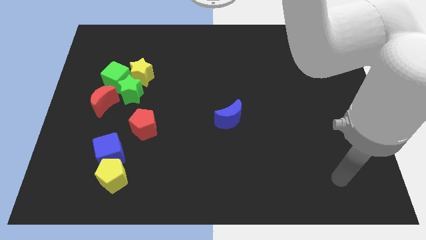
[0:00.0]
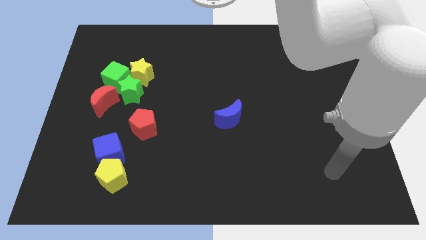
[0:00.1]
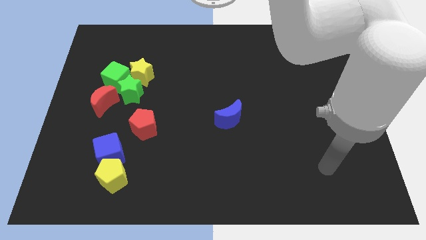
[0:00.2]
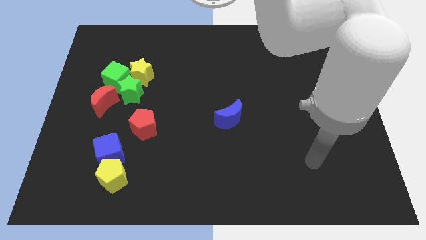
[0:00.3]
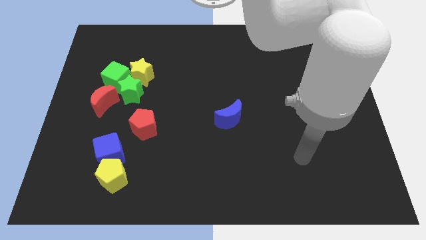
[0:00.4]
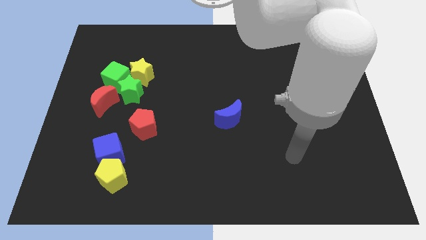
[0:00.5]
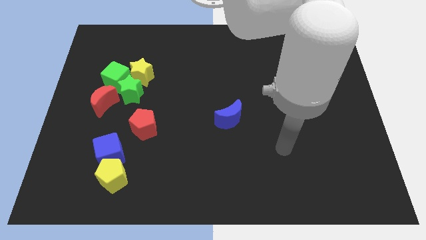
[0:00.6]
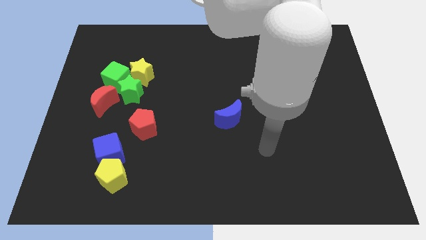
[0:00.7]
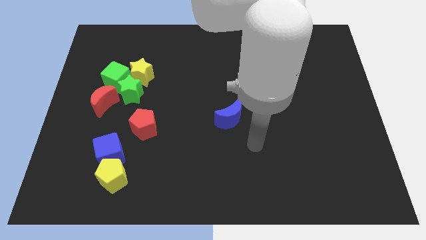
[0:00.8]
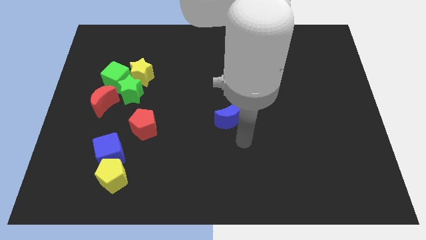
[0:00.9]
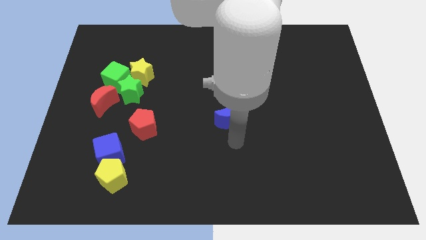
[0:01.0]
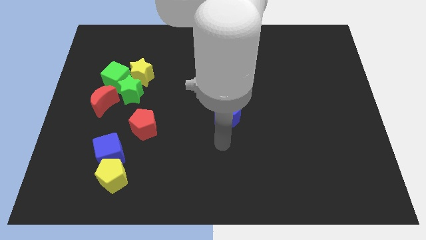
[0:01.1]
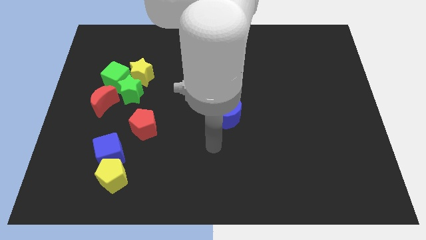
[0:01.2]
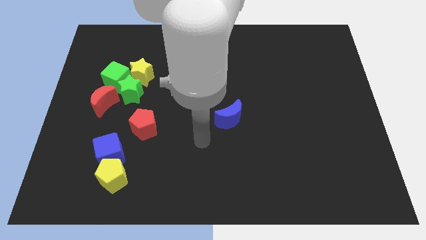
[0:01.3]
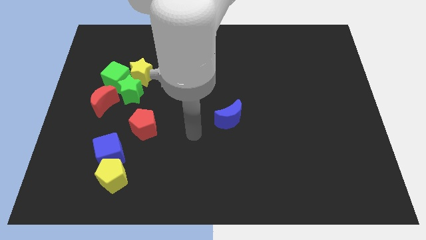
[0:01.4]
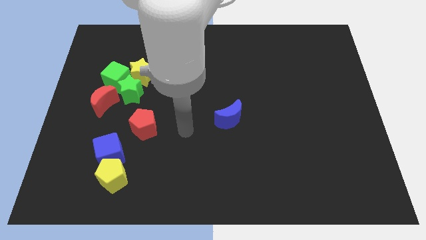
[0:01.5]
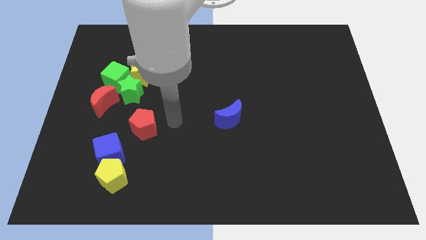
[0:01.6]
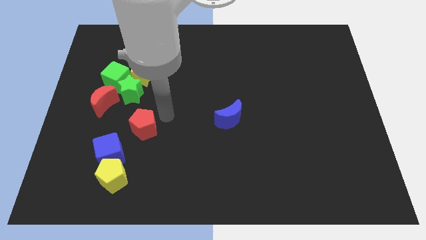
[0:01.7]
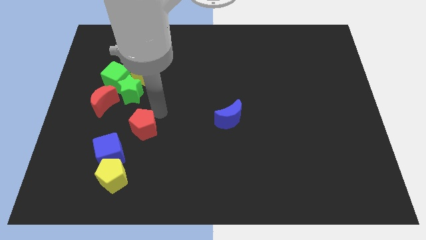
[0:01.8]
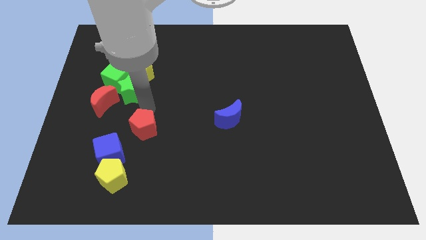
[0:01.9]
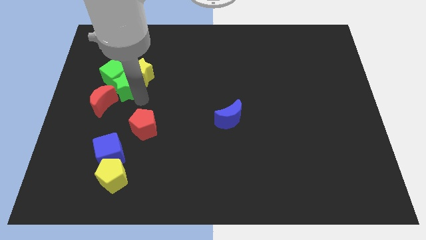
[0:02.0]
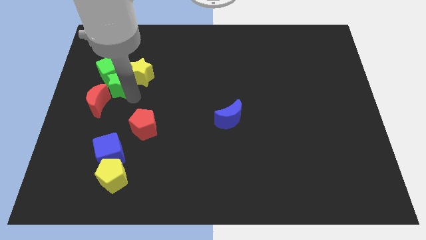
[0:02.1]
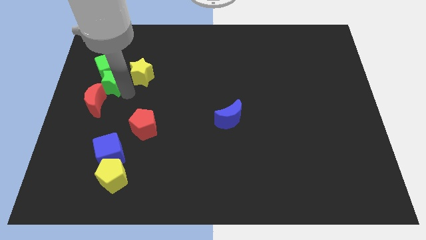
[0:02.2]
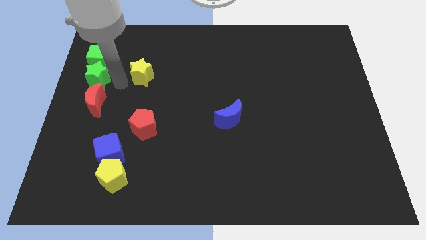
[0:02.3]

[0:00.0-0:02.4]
pull the yellow star apart from the green star and green cube

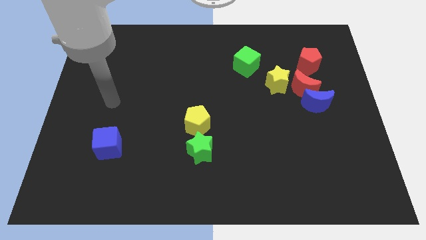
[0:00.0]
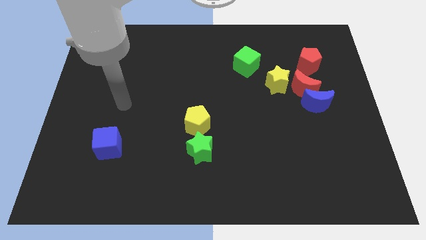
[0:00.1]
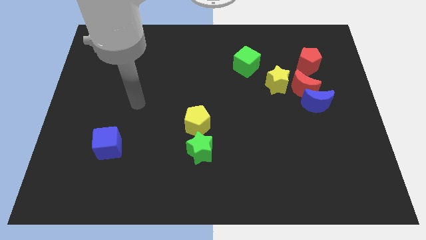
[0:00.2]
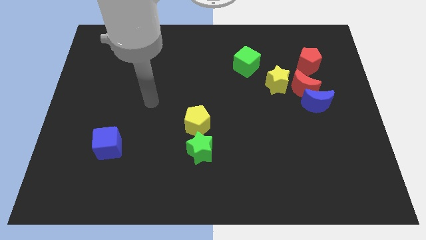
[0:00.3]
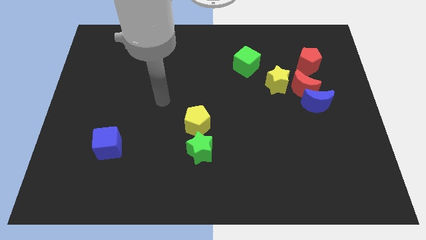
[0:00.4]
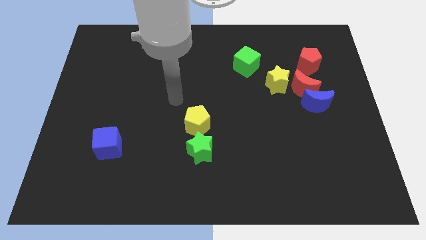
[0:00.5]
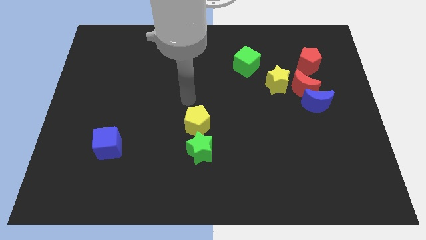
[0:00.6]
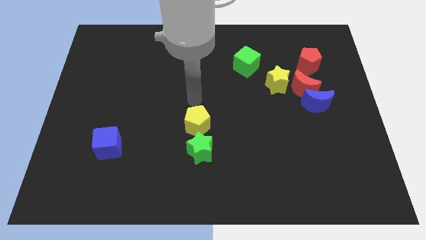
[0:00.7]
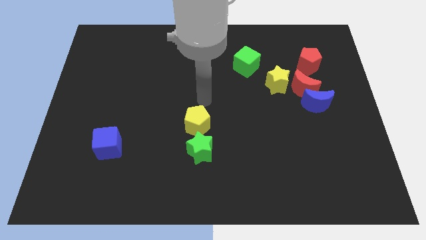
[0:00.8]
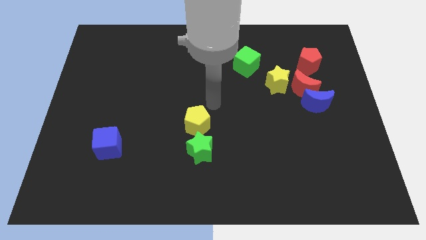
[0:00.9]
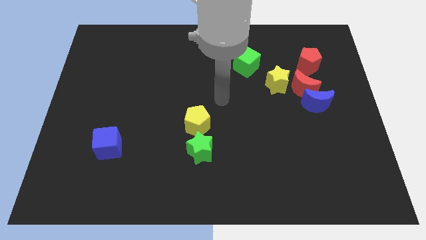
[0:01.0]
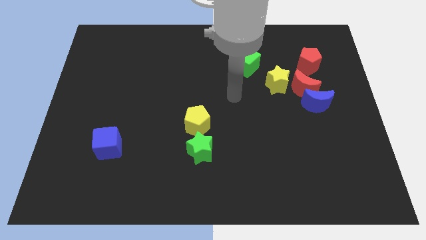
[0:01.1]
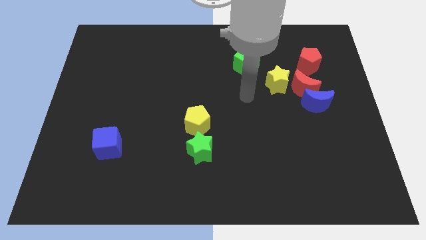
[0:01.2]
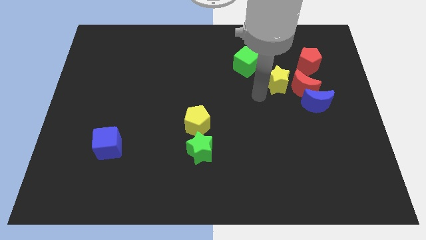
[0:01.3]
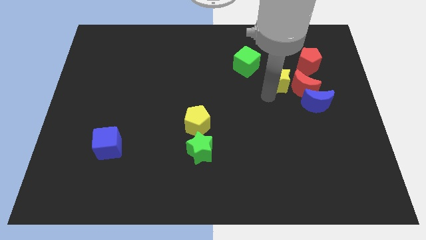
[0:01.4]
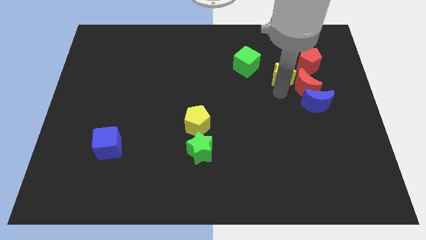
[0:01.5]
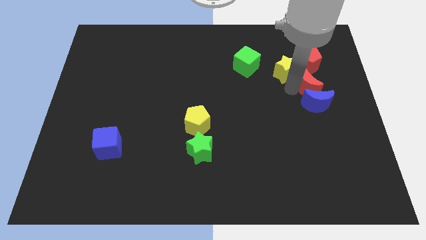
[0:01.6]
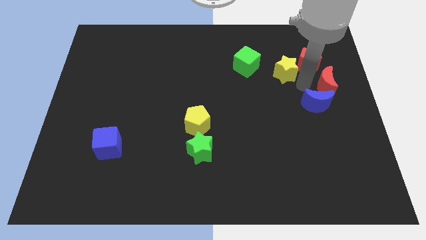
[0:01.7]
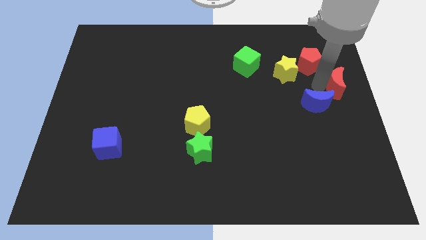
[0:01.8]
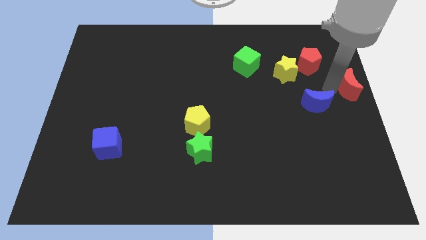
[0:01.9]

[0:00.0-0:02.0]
separate the blue moon from the red moon

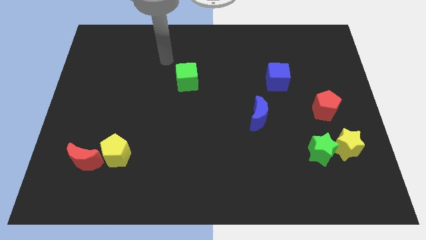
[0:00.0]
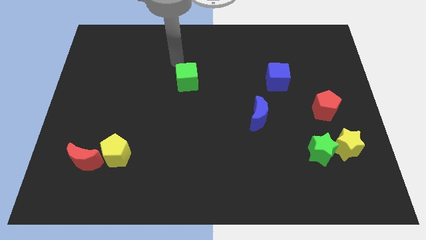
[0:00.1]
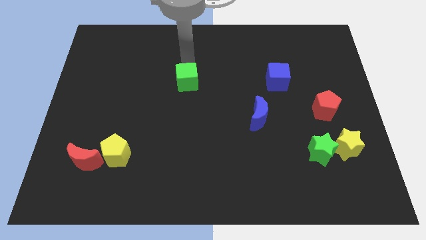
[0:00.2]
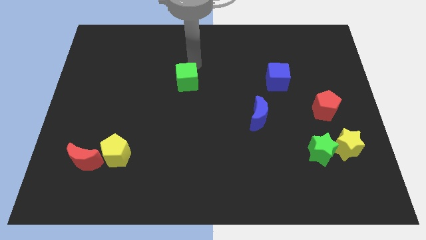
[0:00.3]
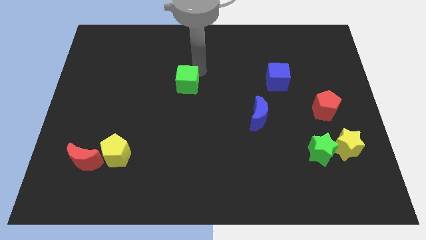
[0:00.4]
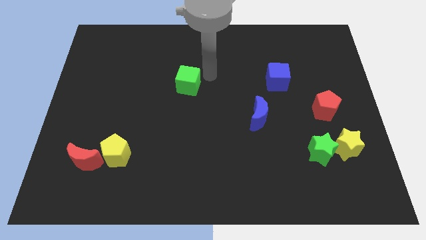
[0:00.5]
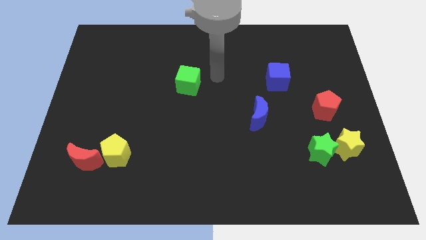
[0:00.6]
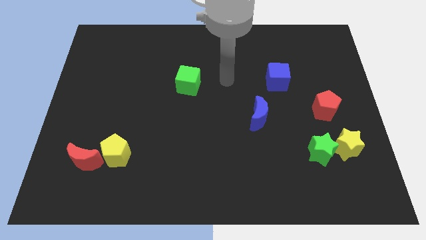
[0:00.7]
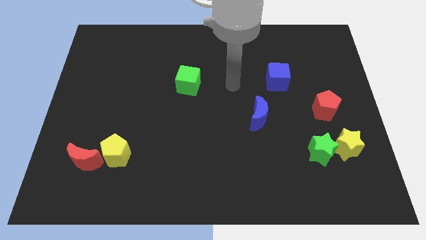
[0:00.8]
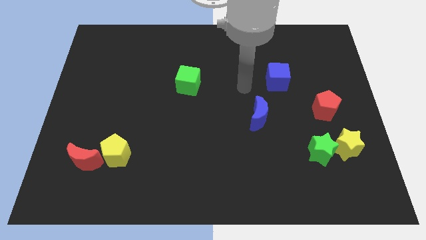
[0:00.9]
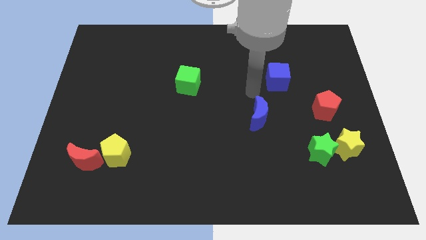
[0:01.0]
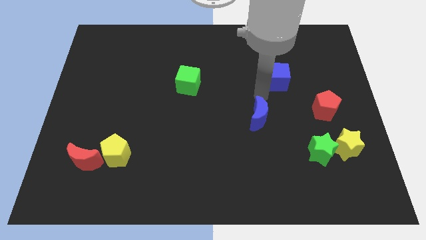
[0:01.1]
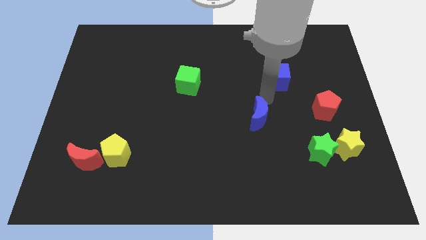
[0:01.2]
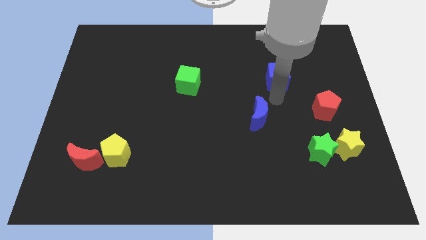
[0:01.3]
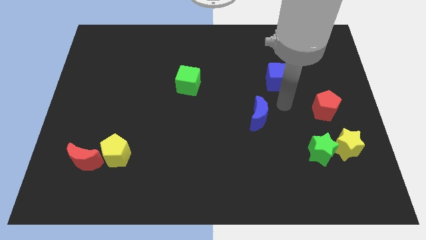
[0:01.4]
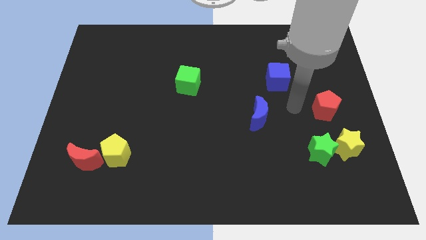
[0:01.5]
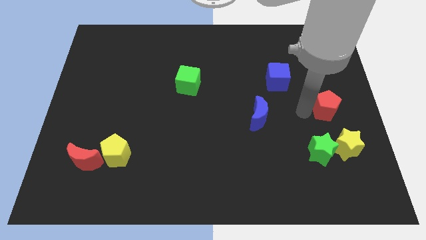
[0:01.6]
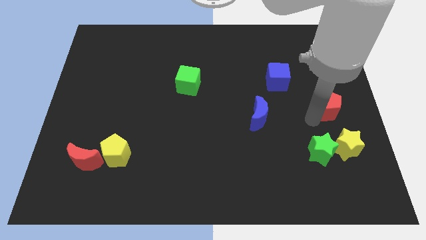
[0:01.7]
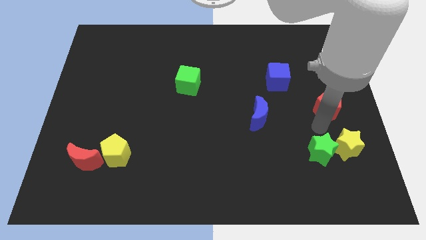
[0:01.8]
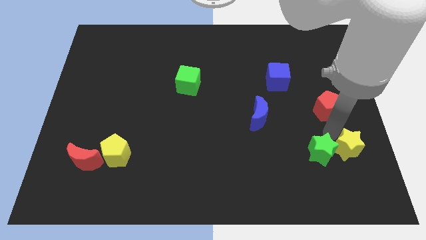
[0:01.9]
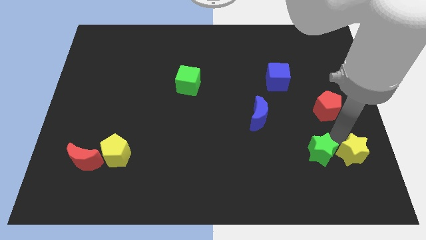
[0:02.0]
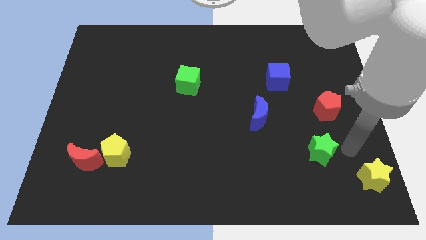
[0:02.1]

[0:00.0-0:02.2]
separate the green star from the yellow star

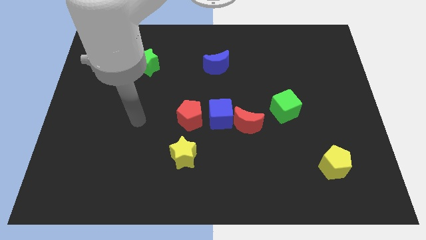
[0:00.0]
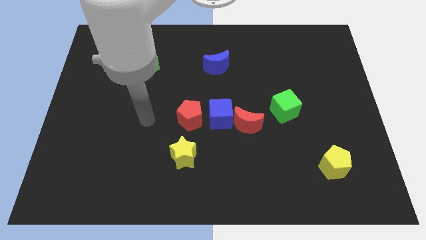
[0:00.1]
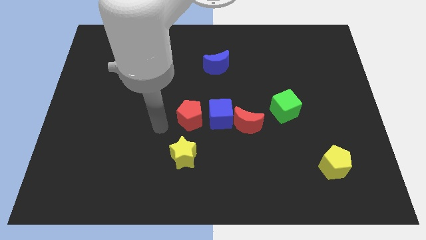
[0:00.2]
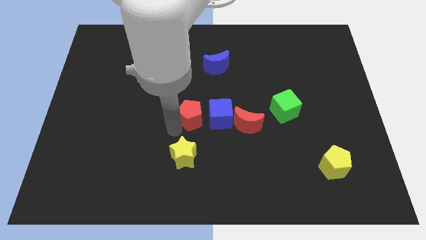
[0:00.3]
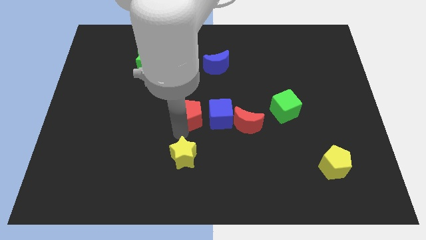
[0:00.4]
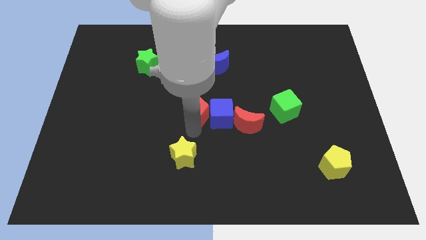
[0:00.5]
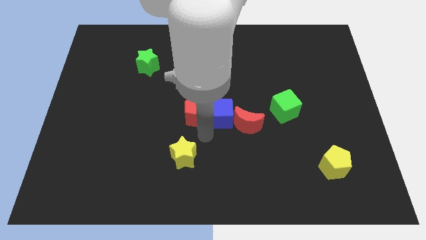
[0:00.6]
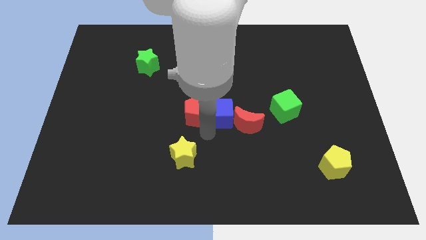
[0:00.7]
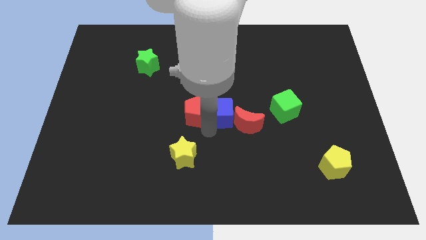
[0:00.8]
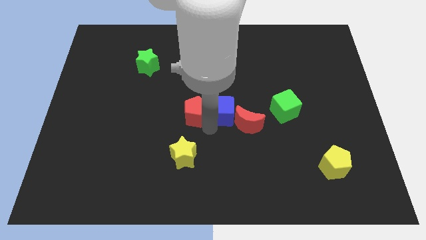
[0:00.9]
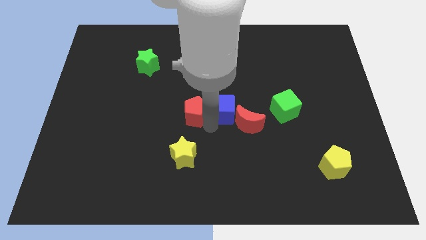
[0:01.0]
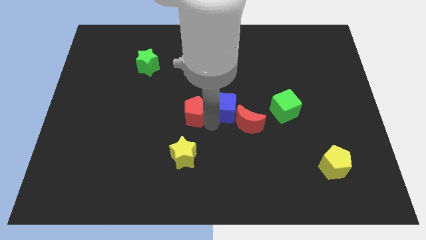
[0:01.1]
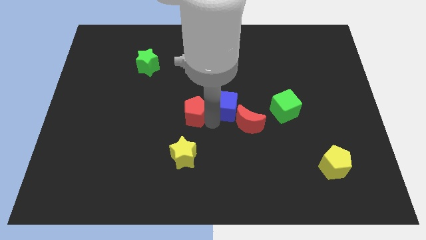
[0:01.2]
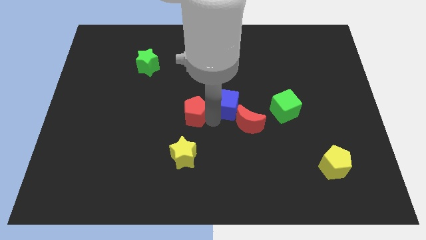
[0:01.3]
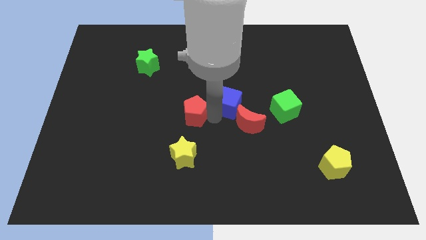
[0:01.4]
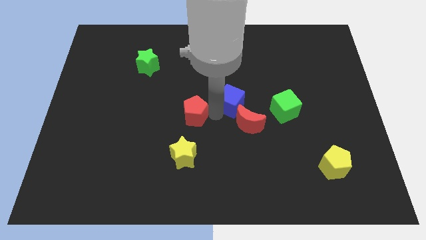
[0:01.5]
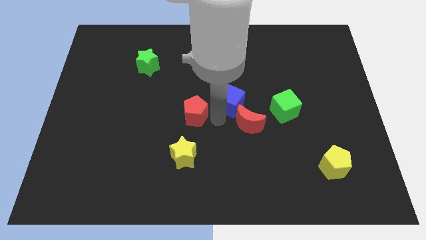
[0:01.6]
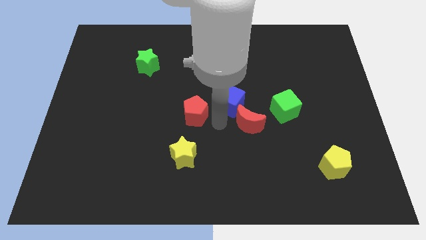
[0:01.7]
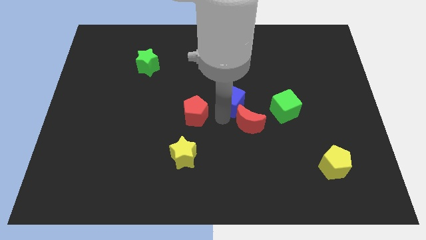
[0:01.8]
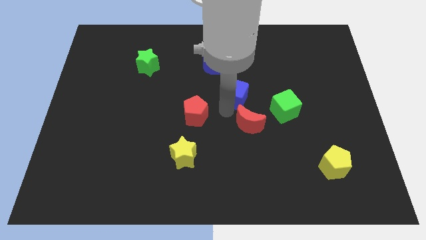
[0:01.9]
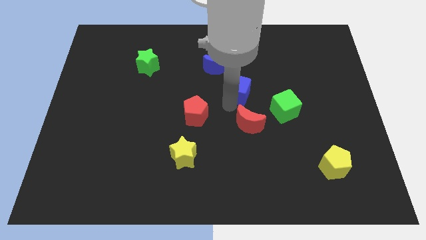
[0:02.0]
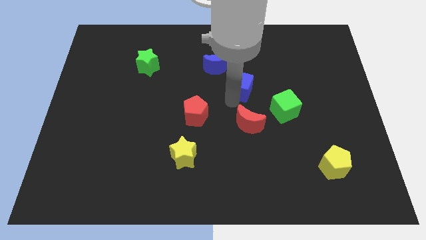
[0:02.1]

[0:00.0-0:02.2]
pull the blue cube apart from the red moon and red pentagon

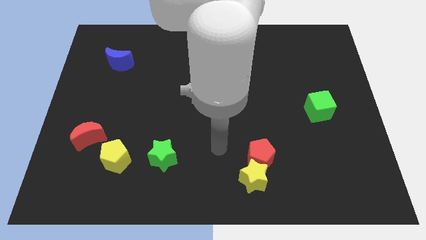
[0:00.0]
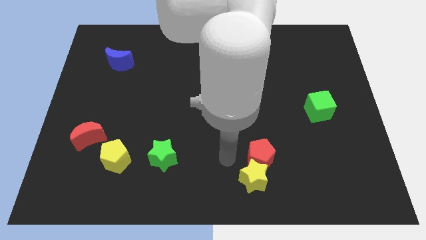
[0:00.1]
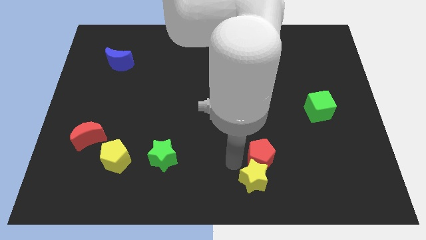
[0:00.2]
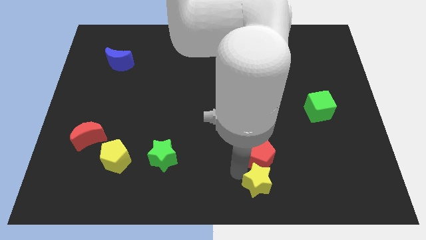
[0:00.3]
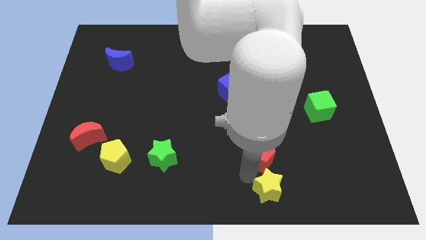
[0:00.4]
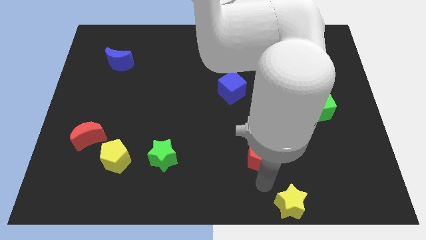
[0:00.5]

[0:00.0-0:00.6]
move the red pentagon away from the yellow star
